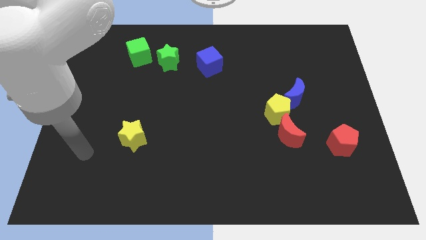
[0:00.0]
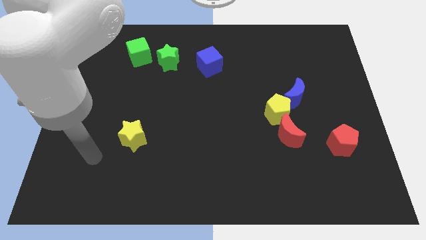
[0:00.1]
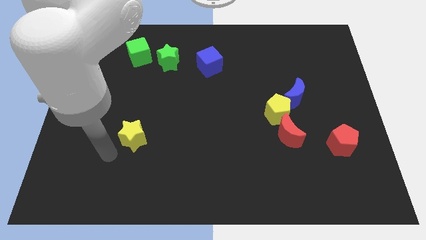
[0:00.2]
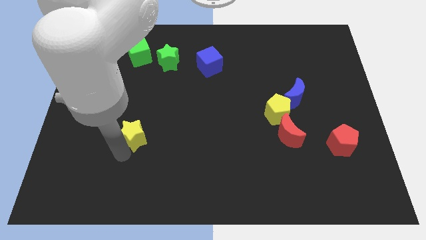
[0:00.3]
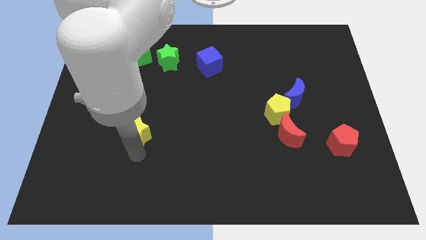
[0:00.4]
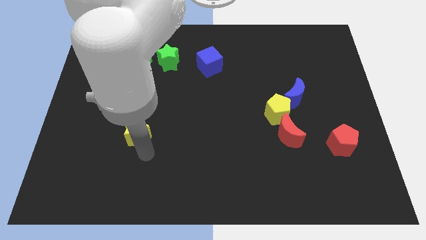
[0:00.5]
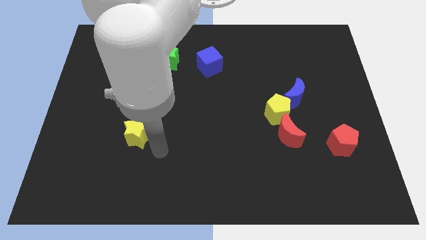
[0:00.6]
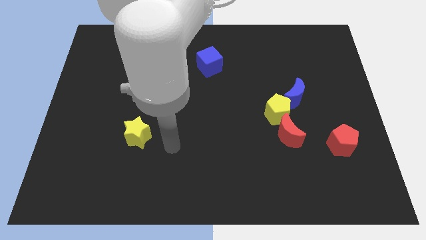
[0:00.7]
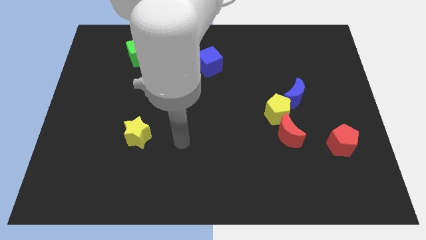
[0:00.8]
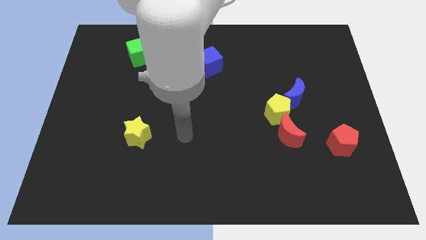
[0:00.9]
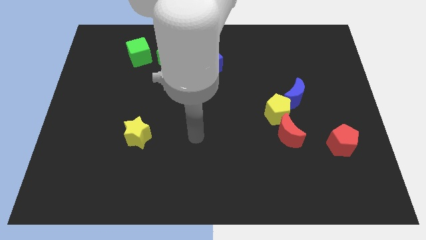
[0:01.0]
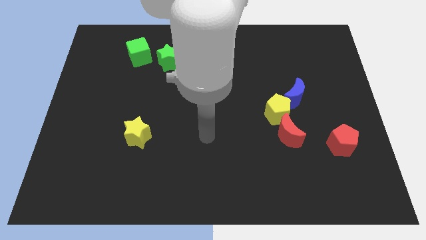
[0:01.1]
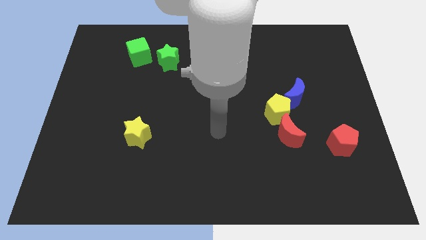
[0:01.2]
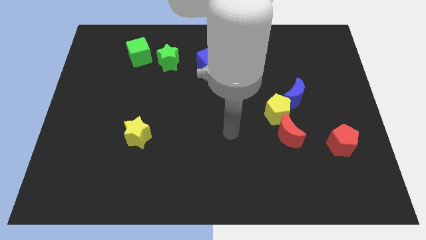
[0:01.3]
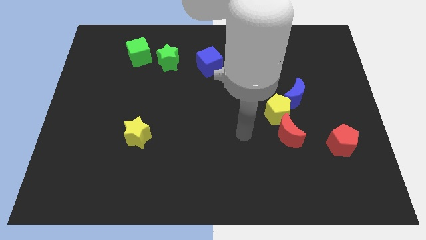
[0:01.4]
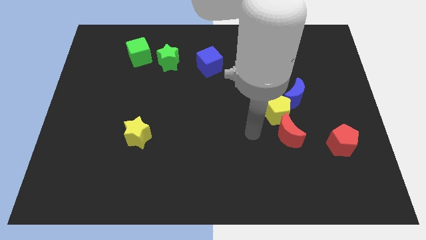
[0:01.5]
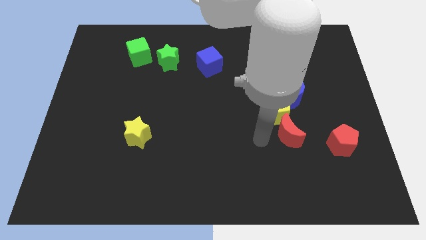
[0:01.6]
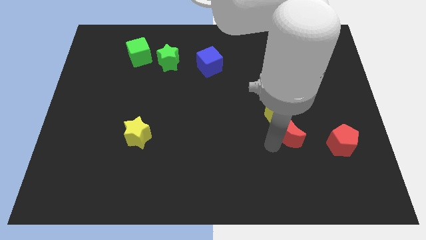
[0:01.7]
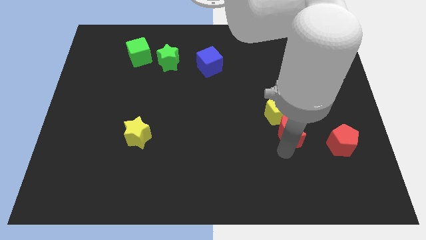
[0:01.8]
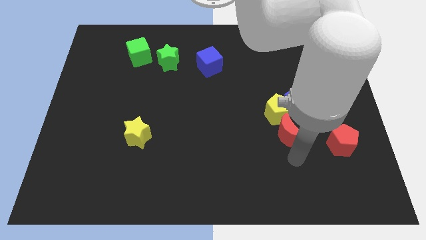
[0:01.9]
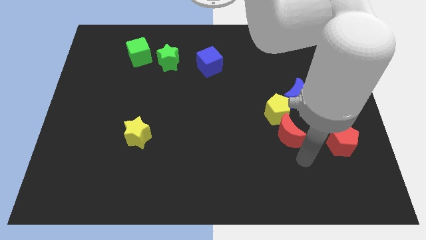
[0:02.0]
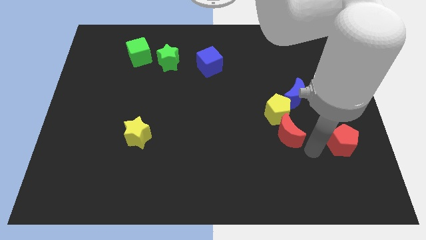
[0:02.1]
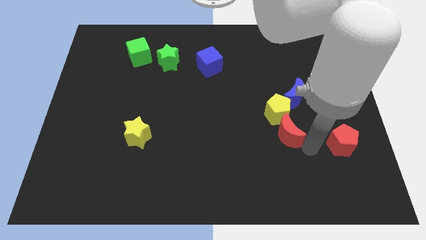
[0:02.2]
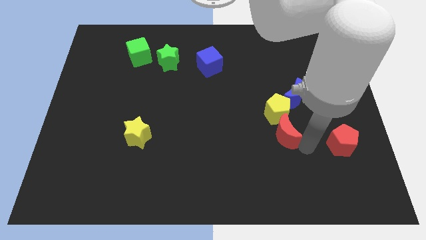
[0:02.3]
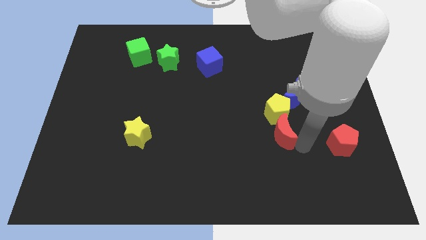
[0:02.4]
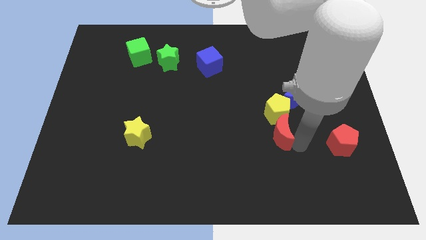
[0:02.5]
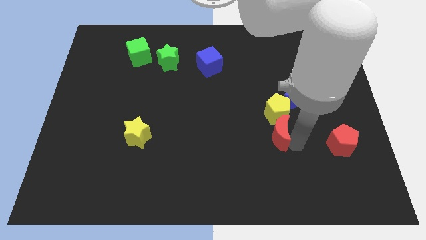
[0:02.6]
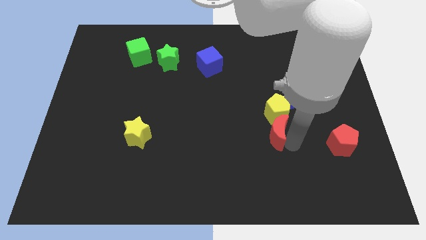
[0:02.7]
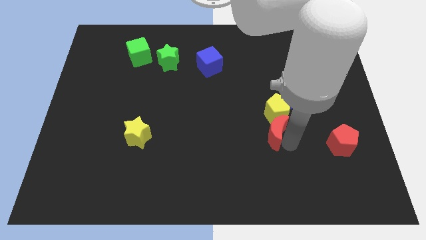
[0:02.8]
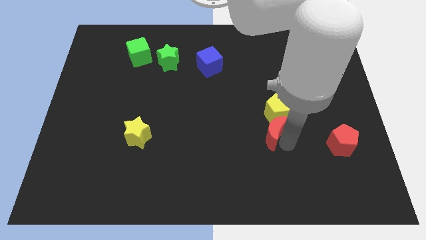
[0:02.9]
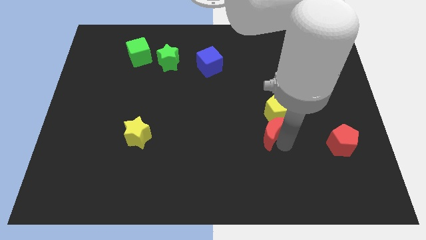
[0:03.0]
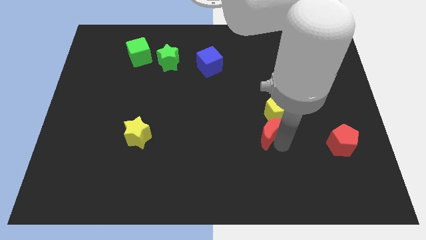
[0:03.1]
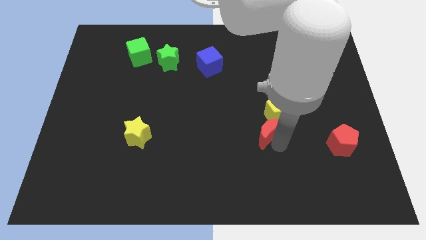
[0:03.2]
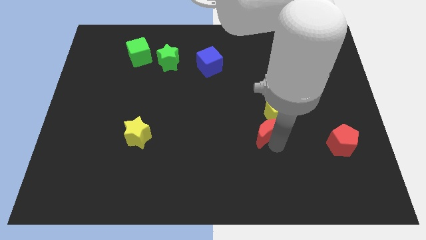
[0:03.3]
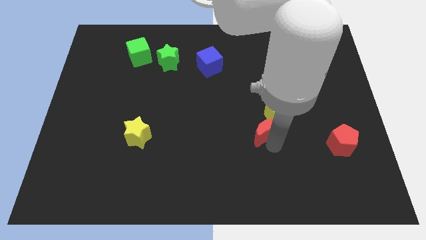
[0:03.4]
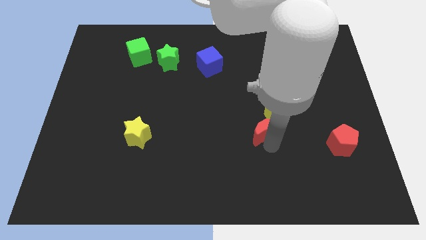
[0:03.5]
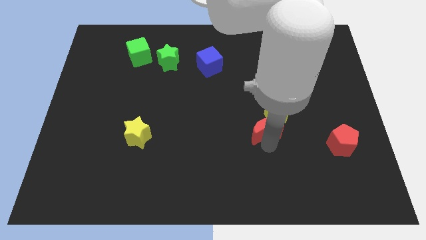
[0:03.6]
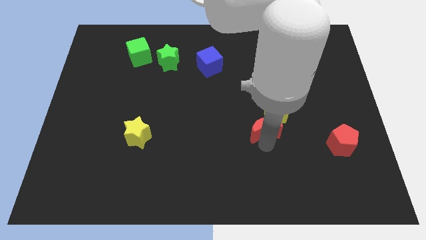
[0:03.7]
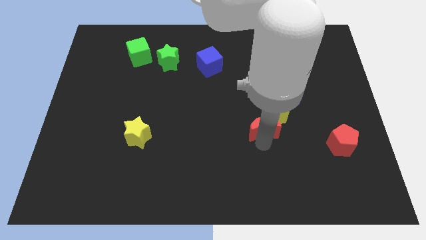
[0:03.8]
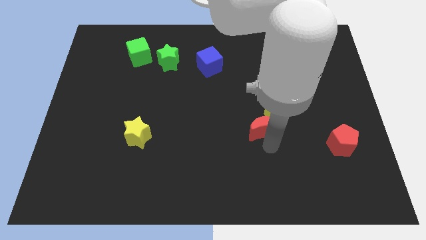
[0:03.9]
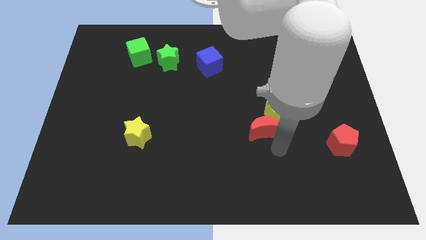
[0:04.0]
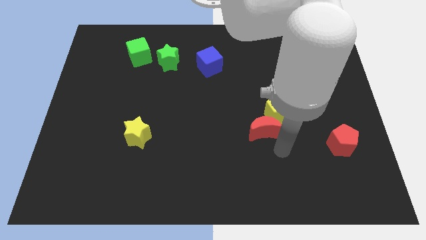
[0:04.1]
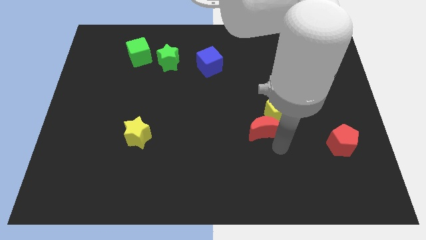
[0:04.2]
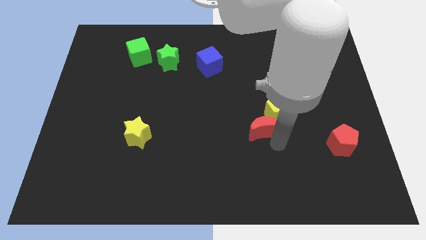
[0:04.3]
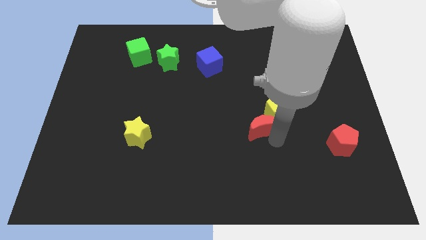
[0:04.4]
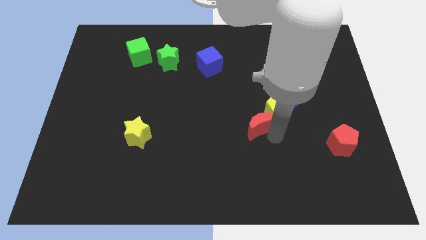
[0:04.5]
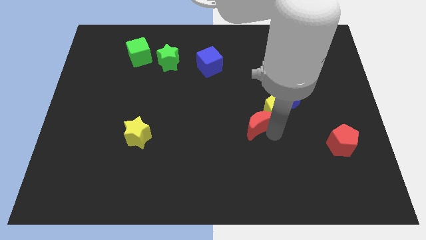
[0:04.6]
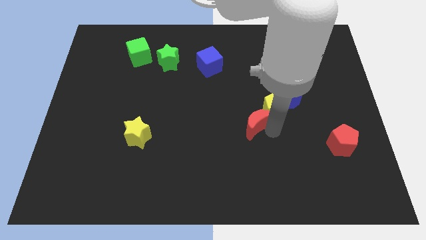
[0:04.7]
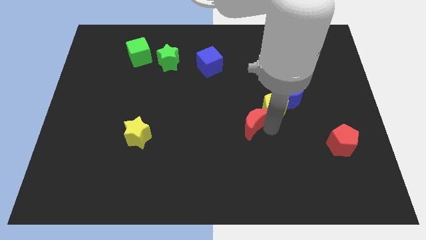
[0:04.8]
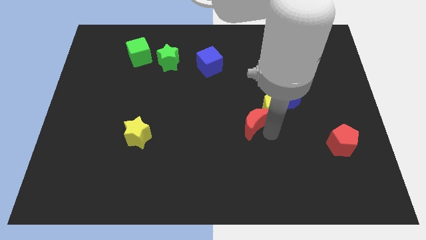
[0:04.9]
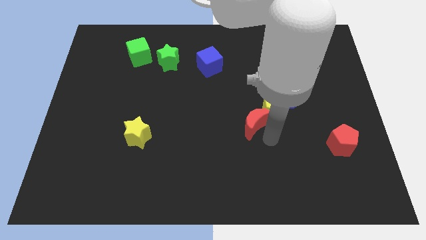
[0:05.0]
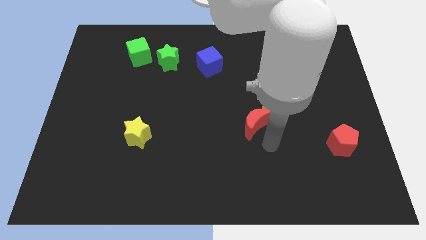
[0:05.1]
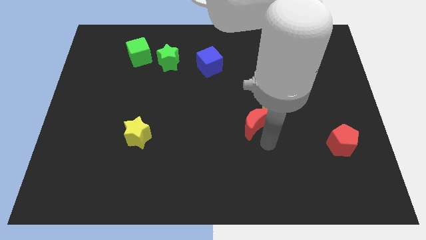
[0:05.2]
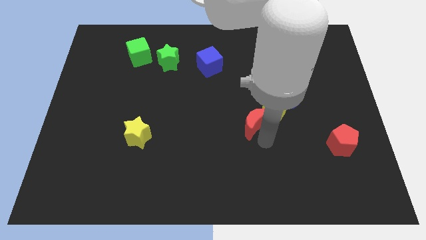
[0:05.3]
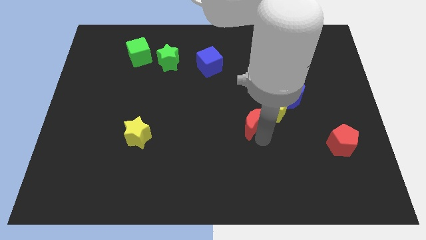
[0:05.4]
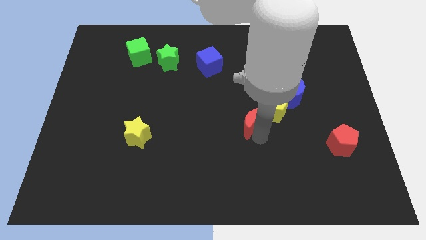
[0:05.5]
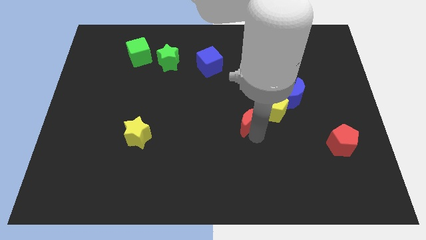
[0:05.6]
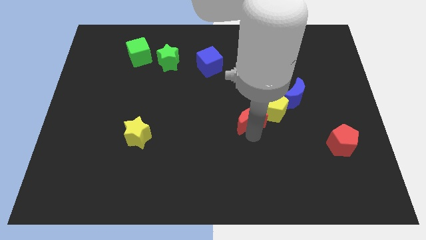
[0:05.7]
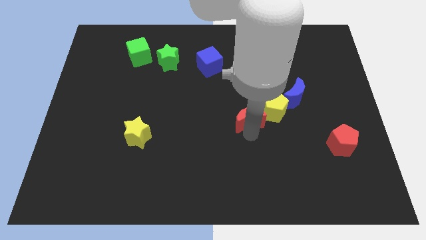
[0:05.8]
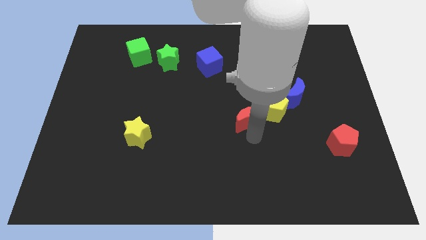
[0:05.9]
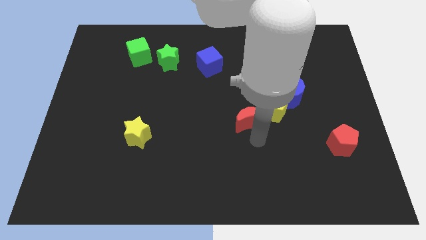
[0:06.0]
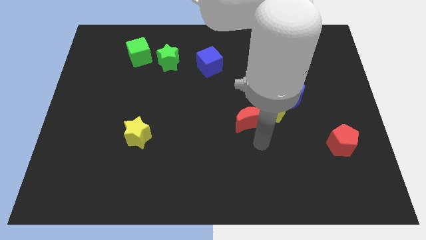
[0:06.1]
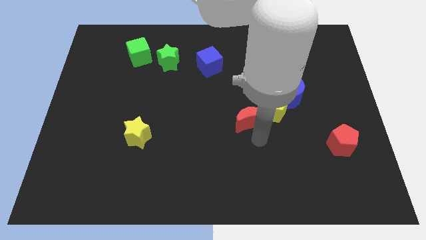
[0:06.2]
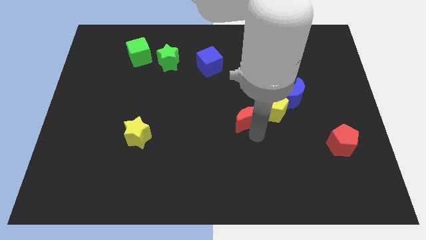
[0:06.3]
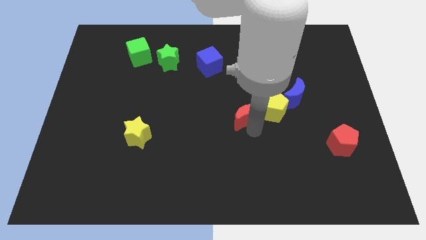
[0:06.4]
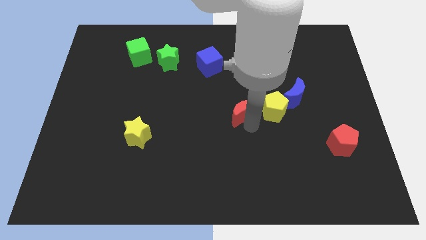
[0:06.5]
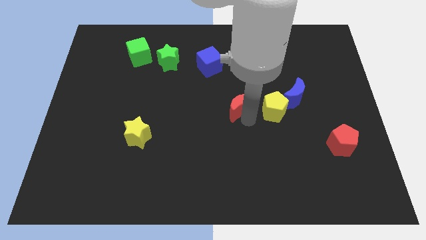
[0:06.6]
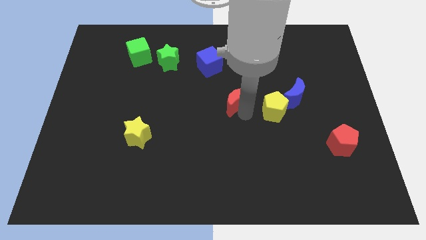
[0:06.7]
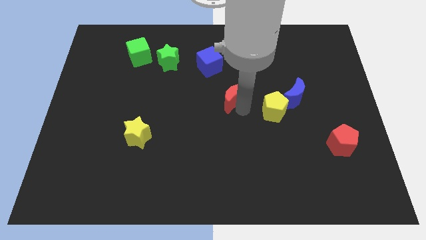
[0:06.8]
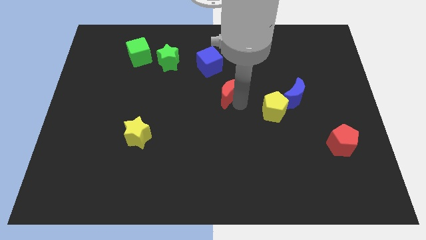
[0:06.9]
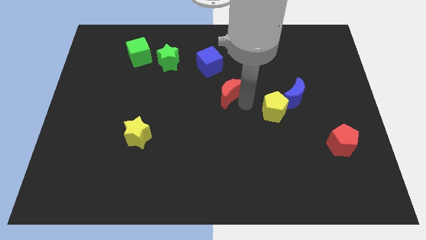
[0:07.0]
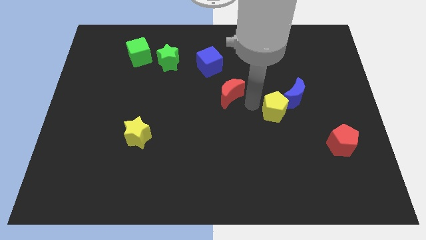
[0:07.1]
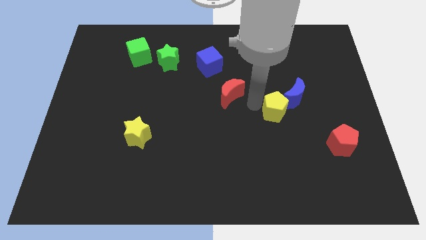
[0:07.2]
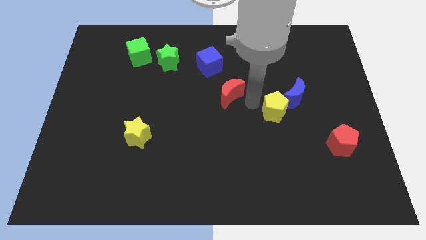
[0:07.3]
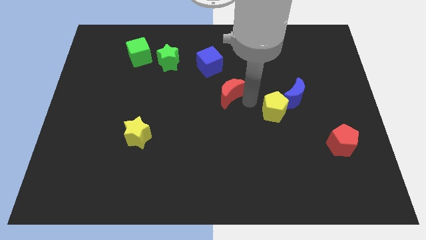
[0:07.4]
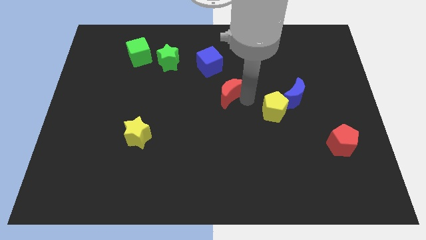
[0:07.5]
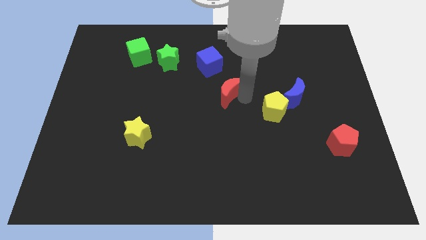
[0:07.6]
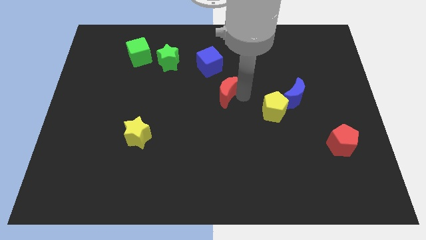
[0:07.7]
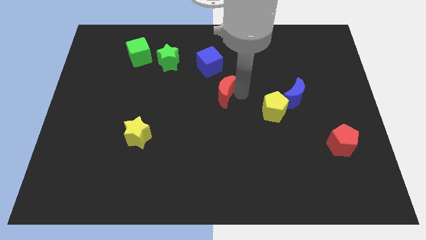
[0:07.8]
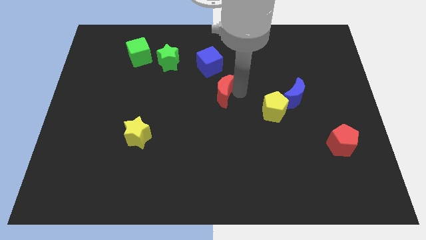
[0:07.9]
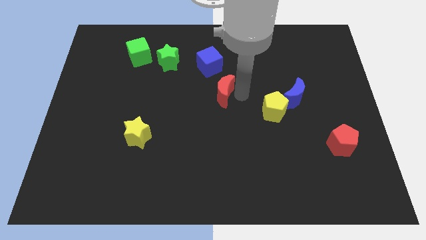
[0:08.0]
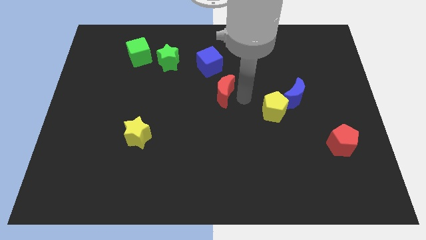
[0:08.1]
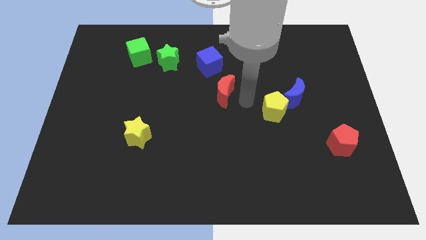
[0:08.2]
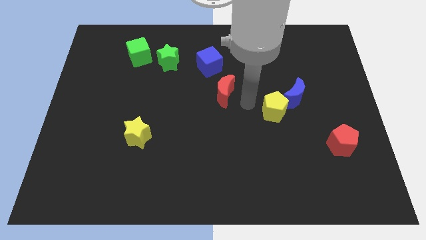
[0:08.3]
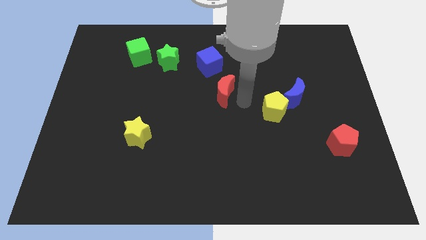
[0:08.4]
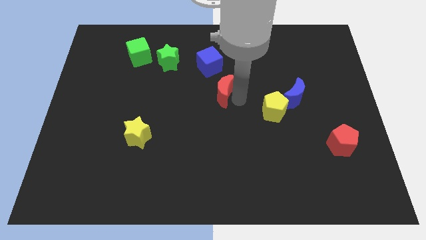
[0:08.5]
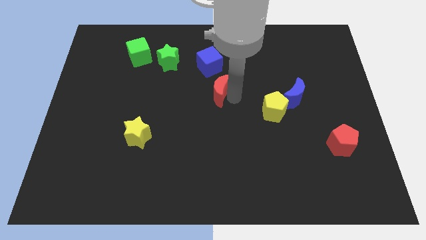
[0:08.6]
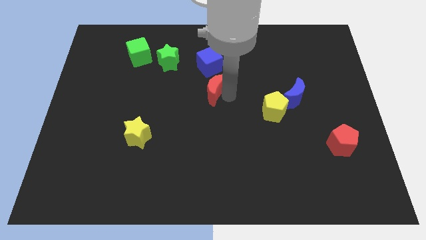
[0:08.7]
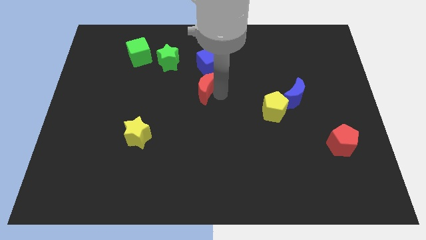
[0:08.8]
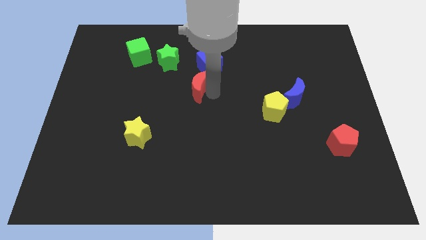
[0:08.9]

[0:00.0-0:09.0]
put the red moon diagonally down and to the right of the green star
